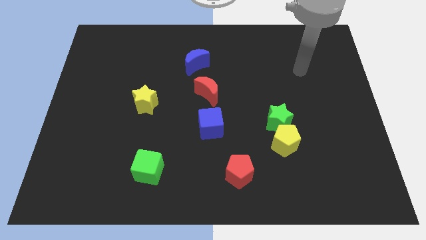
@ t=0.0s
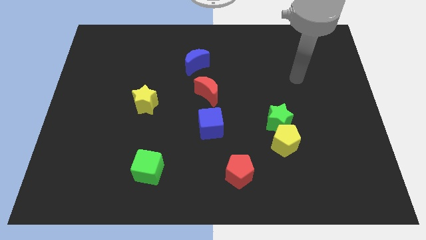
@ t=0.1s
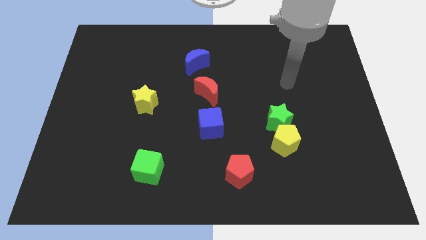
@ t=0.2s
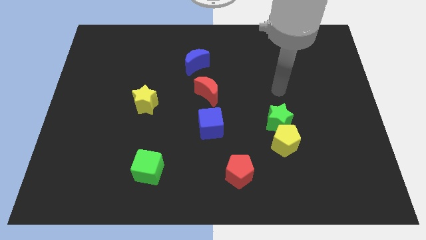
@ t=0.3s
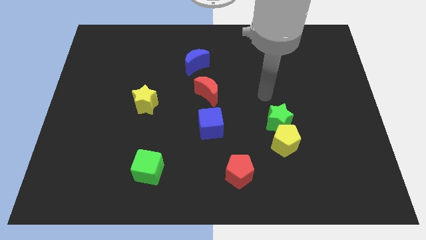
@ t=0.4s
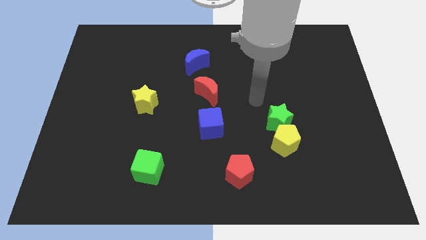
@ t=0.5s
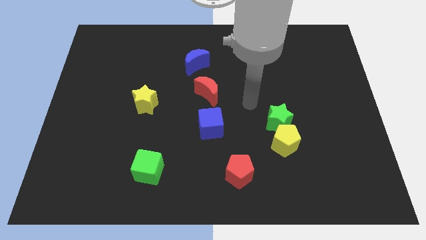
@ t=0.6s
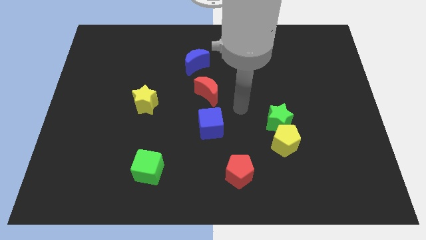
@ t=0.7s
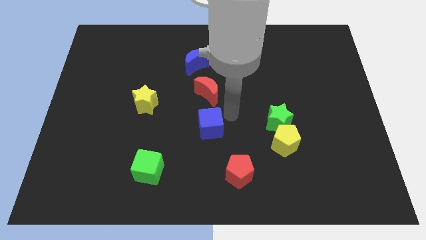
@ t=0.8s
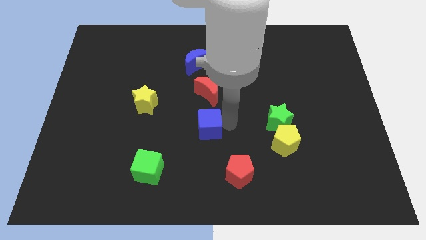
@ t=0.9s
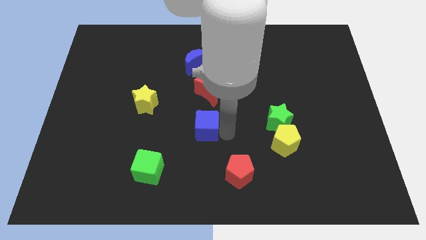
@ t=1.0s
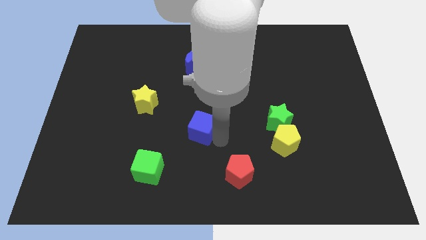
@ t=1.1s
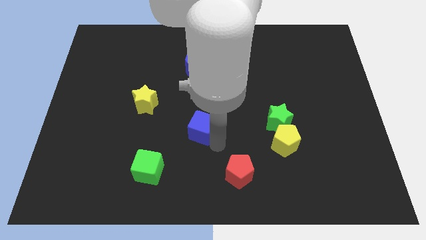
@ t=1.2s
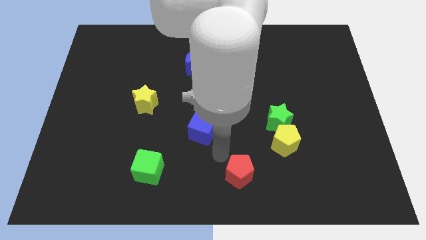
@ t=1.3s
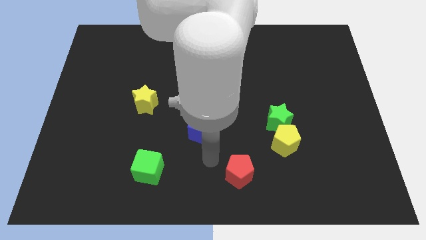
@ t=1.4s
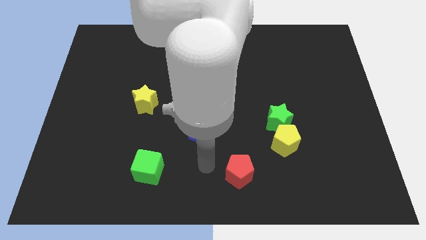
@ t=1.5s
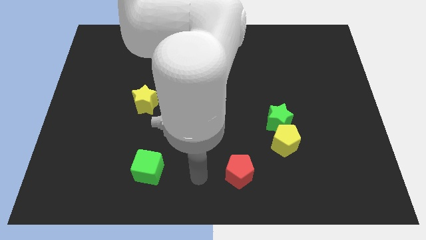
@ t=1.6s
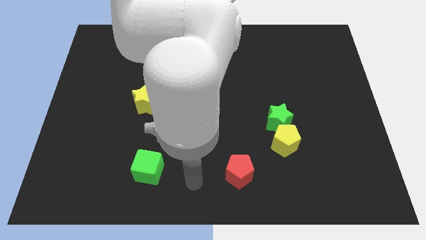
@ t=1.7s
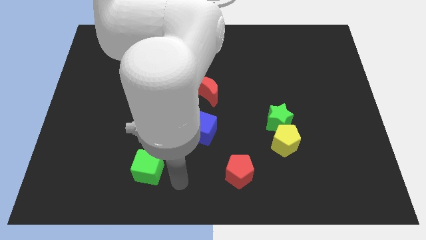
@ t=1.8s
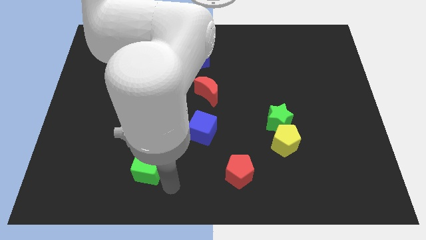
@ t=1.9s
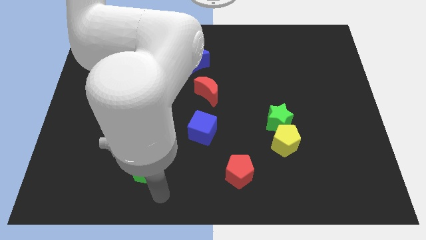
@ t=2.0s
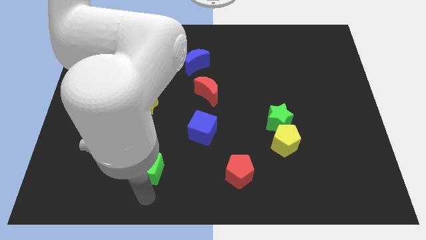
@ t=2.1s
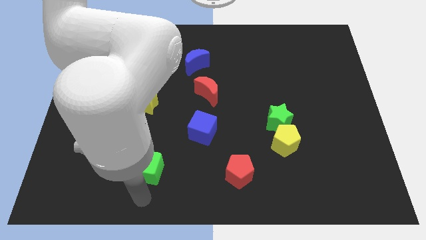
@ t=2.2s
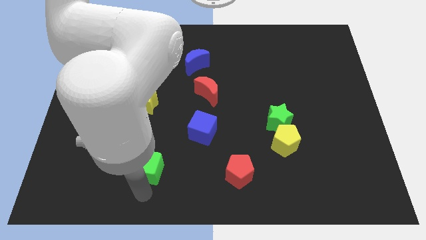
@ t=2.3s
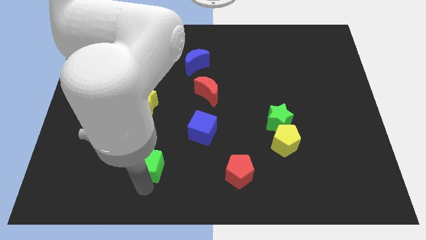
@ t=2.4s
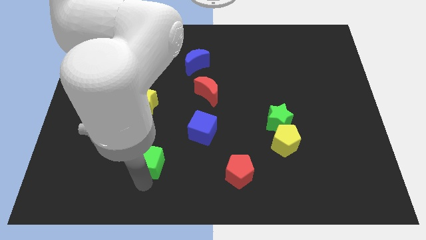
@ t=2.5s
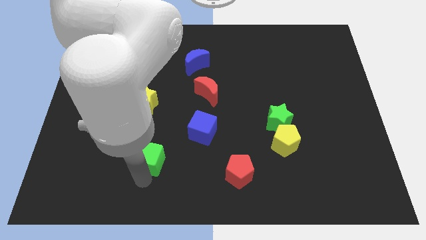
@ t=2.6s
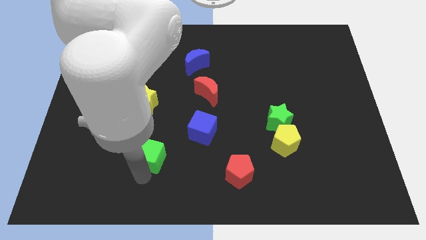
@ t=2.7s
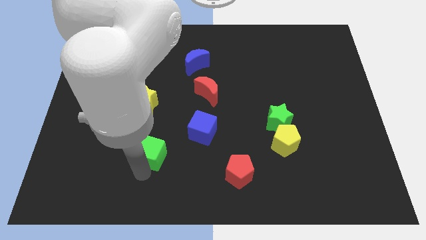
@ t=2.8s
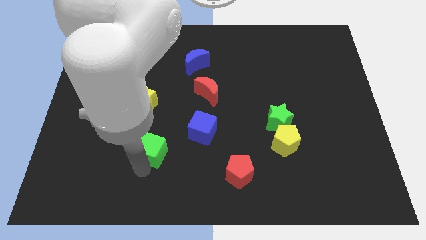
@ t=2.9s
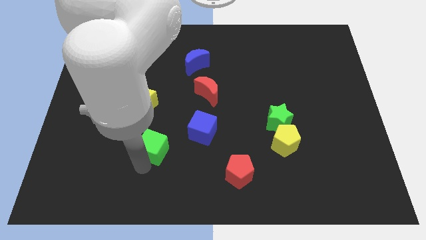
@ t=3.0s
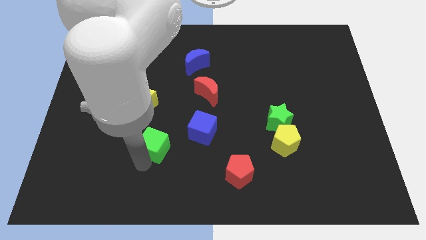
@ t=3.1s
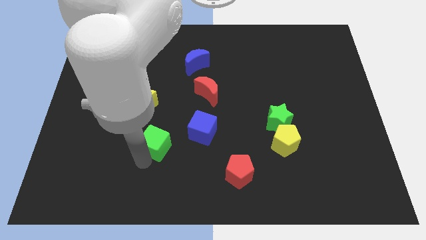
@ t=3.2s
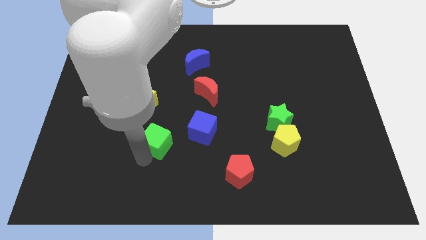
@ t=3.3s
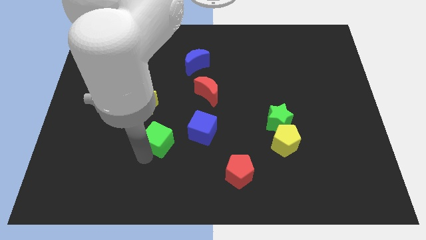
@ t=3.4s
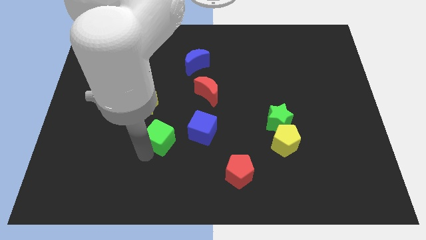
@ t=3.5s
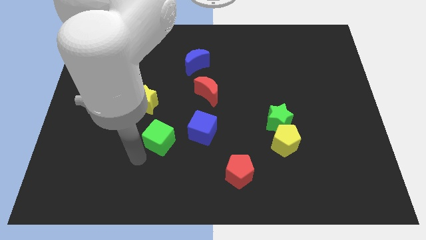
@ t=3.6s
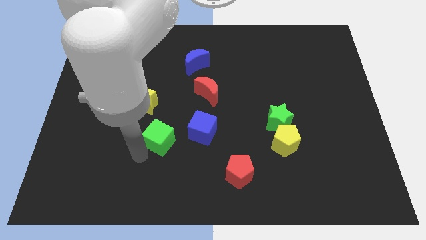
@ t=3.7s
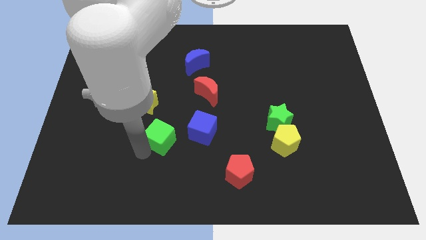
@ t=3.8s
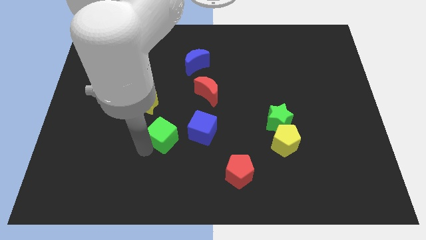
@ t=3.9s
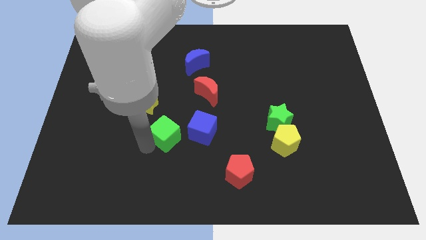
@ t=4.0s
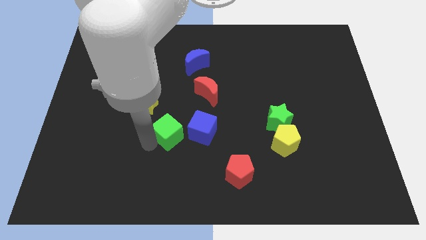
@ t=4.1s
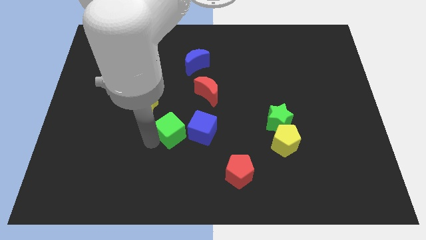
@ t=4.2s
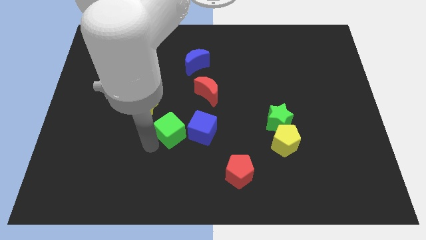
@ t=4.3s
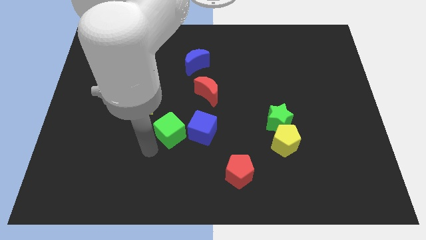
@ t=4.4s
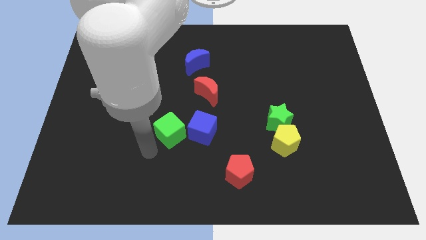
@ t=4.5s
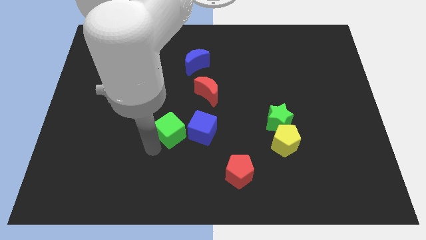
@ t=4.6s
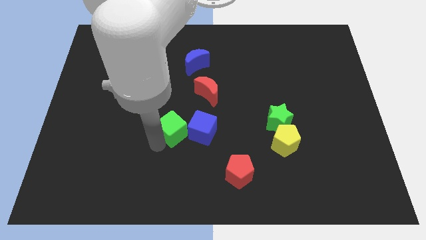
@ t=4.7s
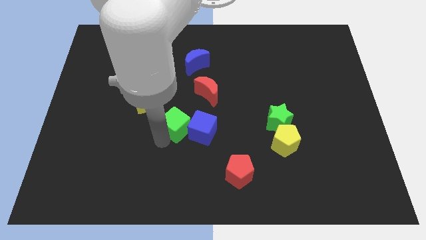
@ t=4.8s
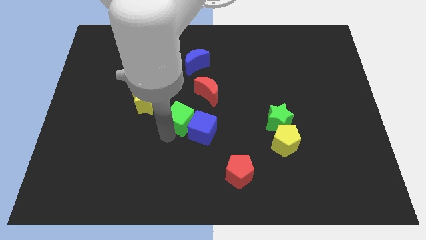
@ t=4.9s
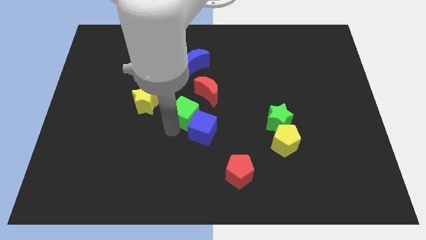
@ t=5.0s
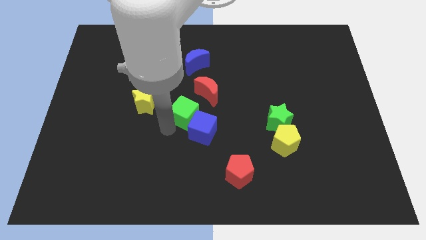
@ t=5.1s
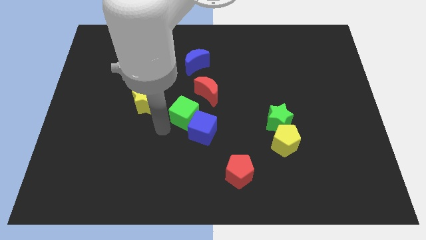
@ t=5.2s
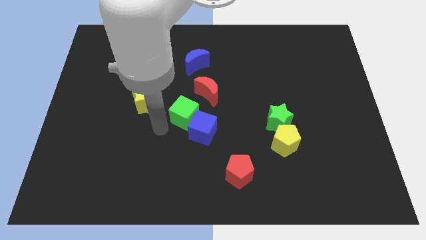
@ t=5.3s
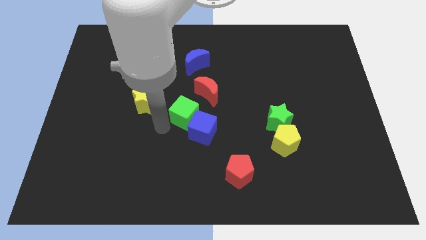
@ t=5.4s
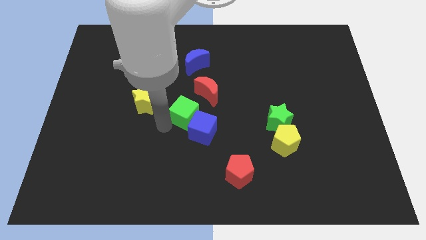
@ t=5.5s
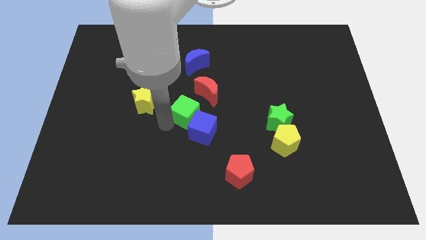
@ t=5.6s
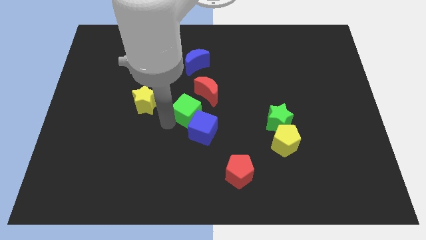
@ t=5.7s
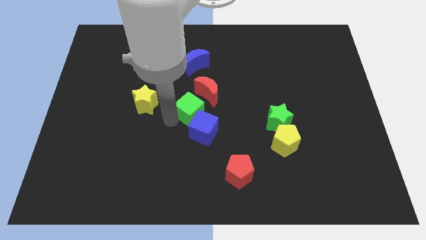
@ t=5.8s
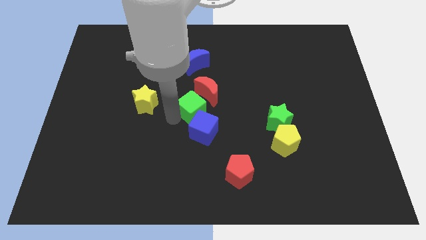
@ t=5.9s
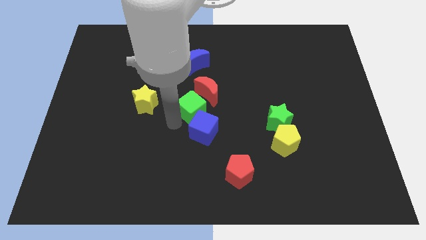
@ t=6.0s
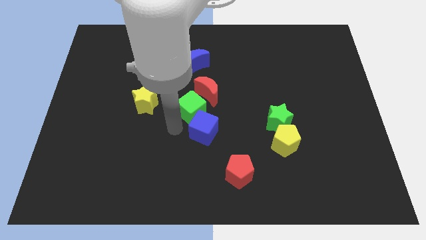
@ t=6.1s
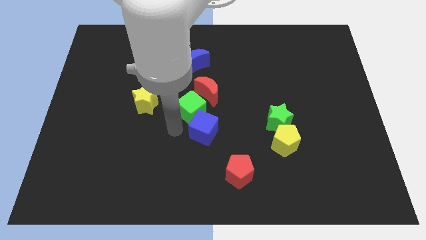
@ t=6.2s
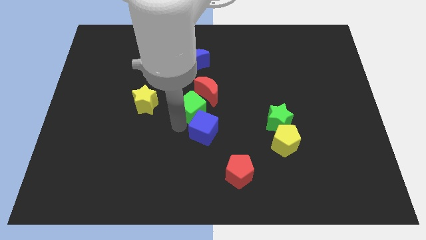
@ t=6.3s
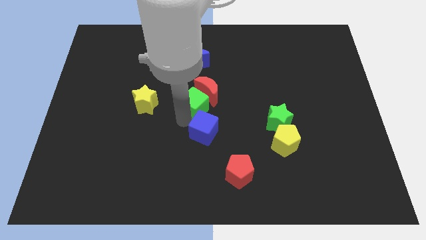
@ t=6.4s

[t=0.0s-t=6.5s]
push the green cube towards the red moon
